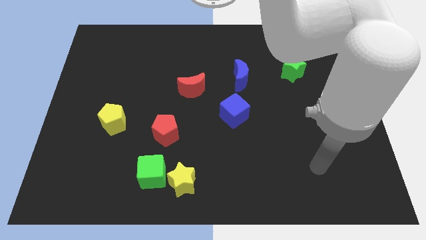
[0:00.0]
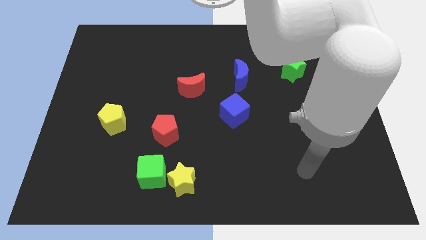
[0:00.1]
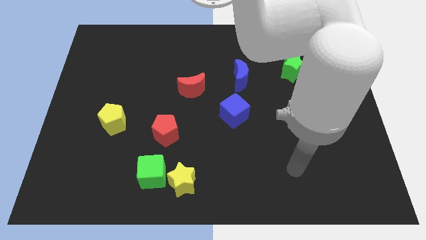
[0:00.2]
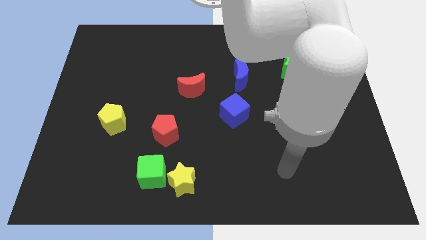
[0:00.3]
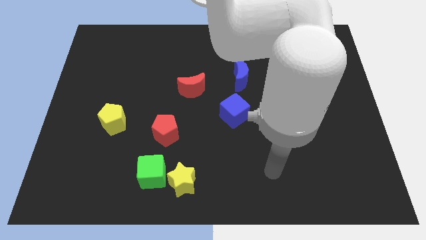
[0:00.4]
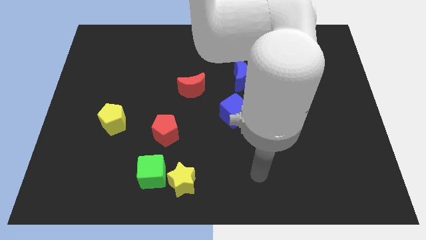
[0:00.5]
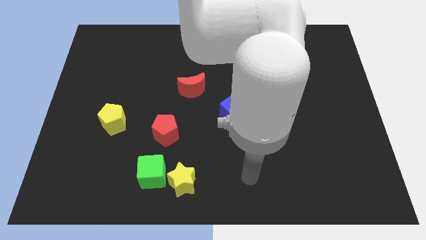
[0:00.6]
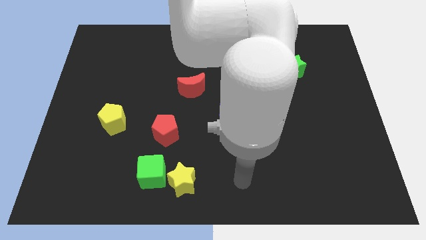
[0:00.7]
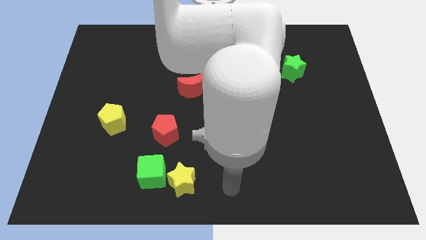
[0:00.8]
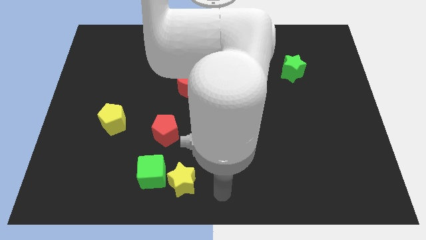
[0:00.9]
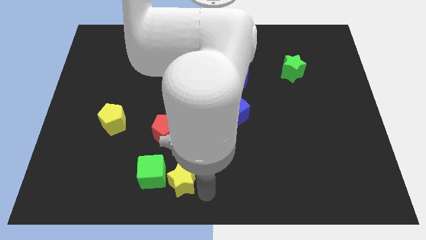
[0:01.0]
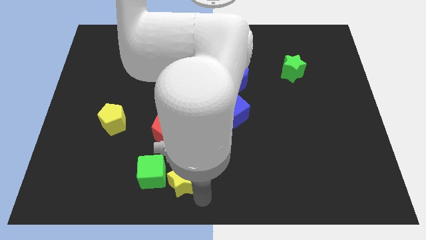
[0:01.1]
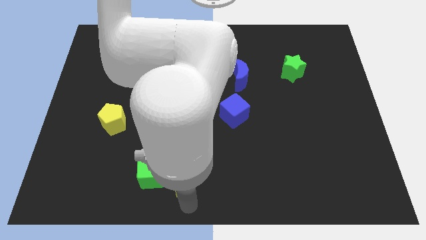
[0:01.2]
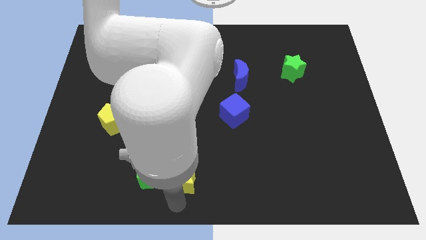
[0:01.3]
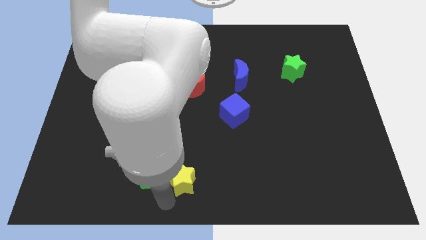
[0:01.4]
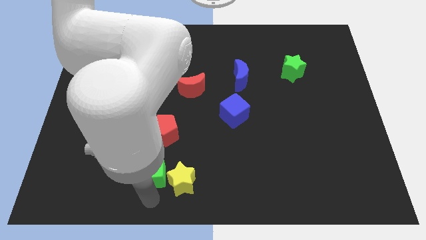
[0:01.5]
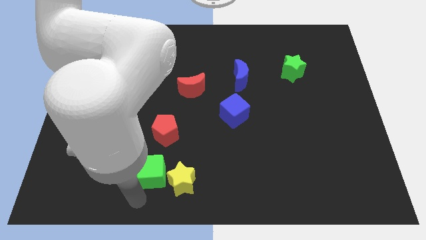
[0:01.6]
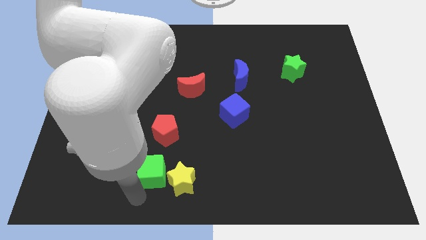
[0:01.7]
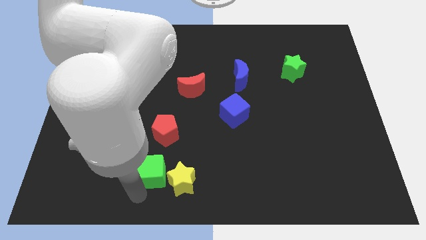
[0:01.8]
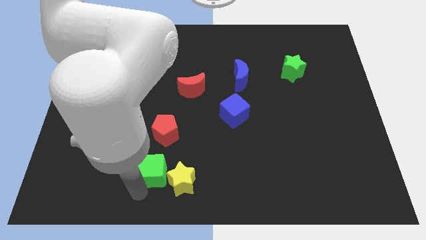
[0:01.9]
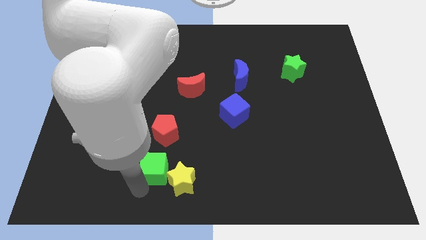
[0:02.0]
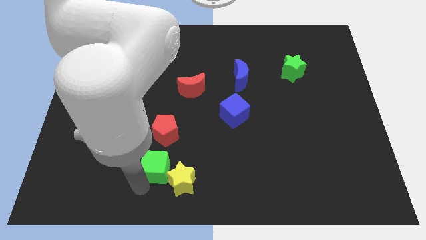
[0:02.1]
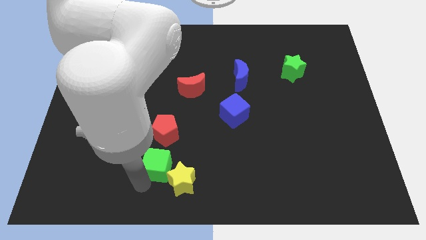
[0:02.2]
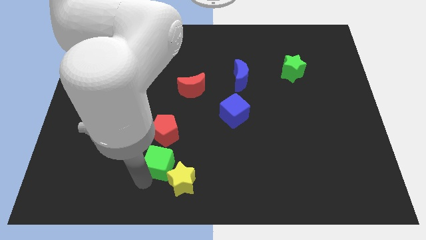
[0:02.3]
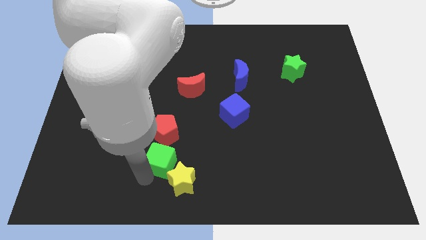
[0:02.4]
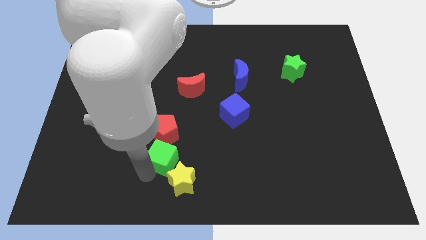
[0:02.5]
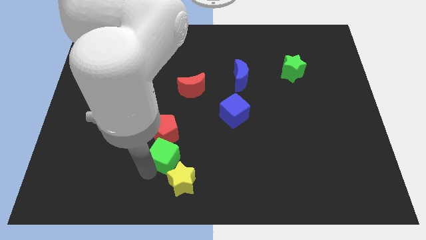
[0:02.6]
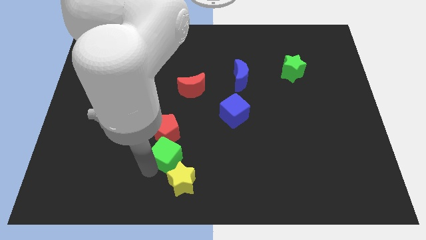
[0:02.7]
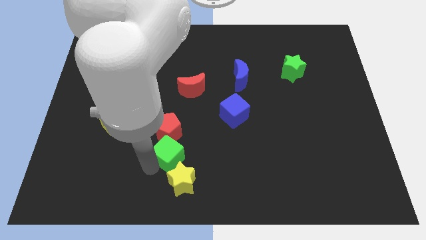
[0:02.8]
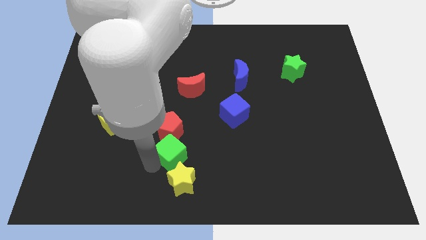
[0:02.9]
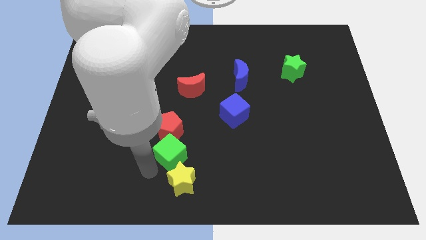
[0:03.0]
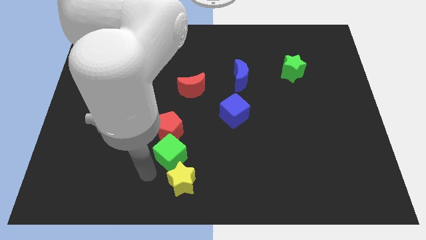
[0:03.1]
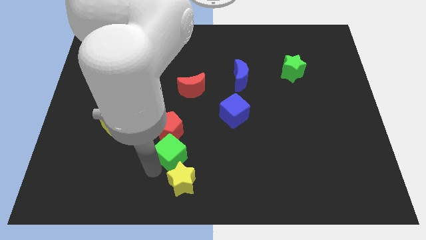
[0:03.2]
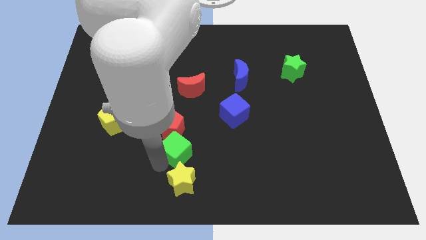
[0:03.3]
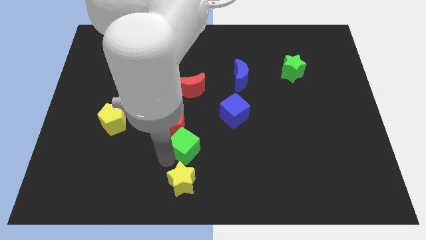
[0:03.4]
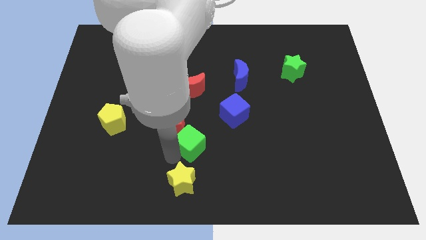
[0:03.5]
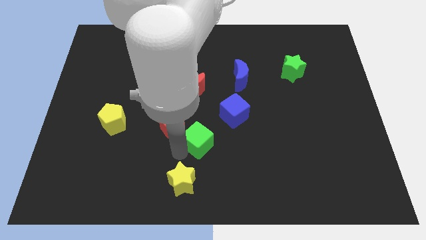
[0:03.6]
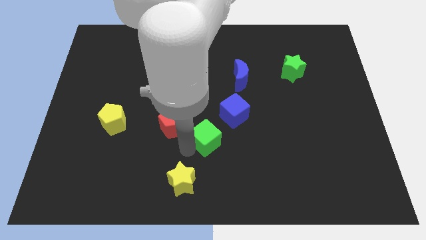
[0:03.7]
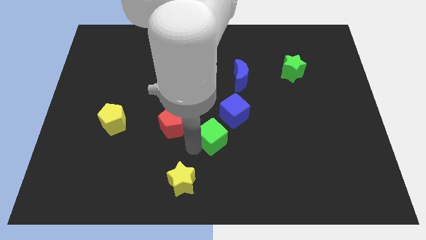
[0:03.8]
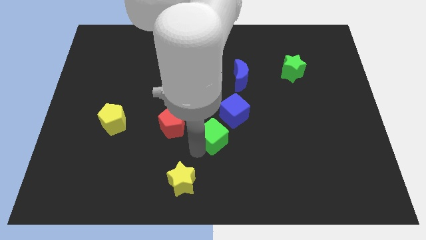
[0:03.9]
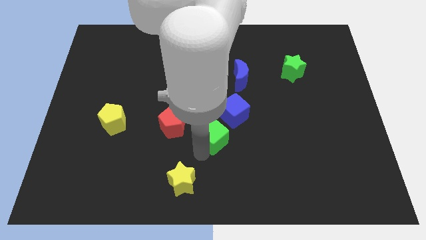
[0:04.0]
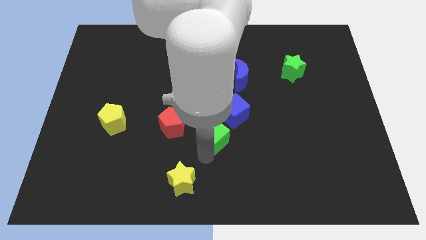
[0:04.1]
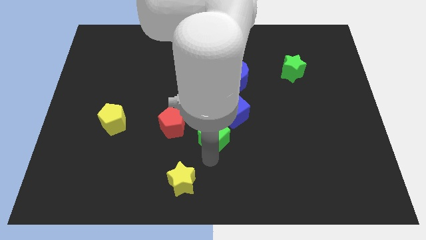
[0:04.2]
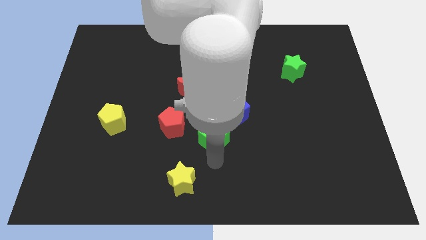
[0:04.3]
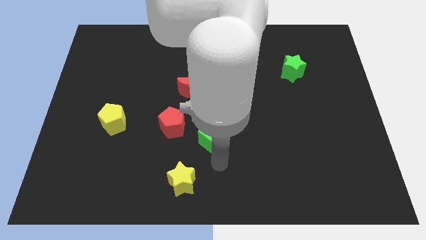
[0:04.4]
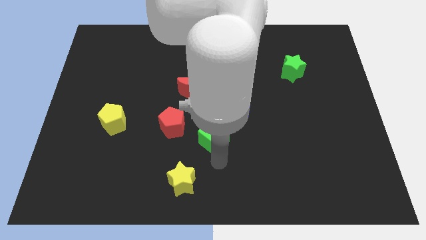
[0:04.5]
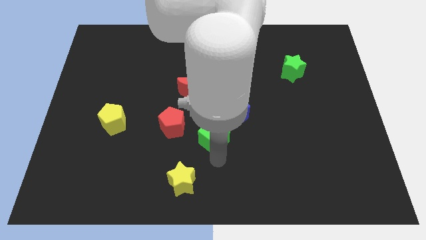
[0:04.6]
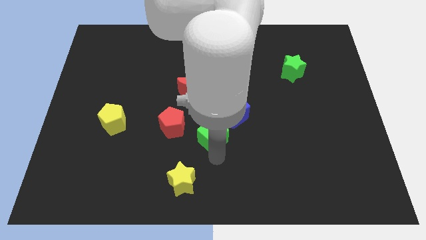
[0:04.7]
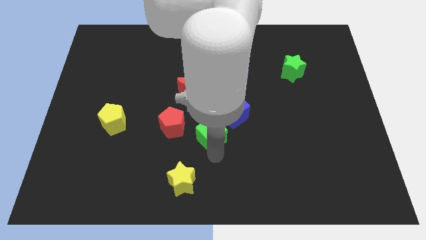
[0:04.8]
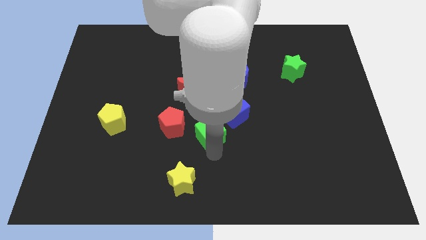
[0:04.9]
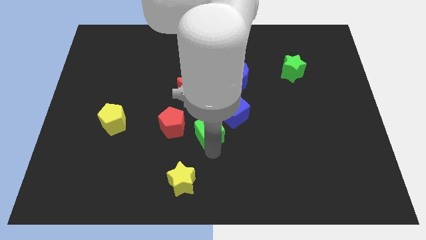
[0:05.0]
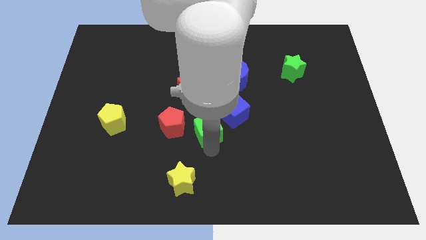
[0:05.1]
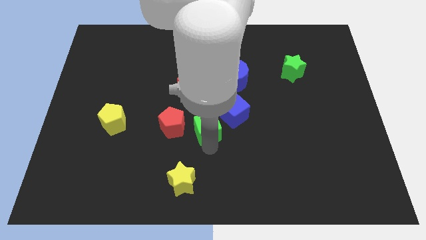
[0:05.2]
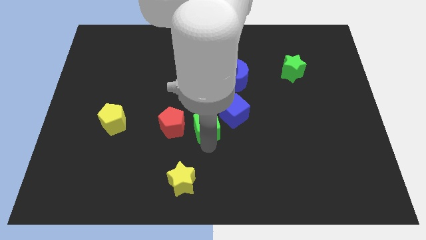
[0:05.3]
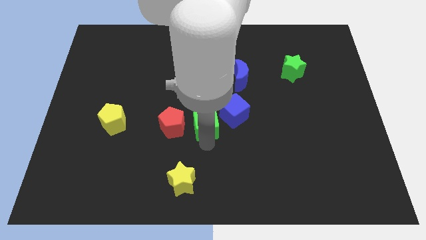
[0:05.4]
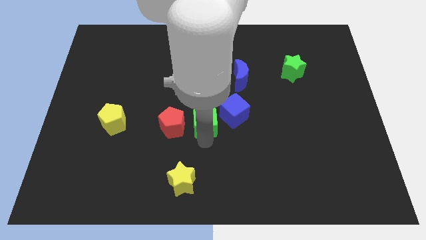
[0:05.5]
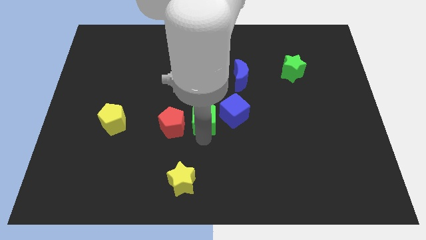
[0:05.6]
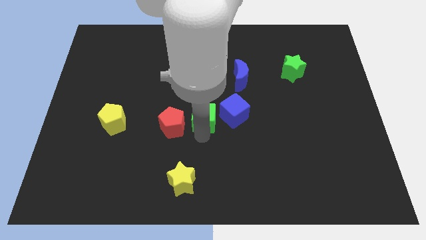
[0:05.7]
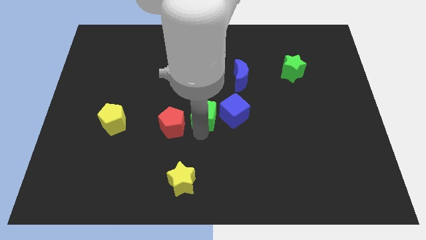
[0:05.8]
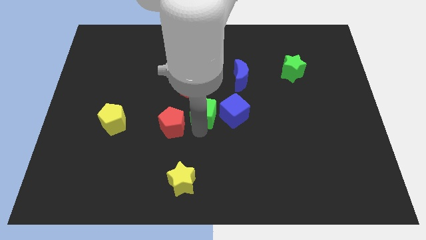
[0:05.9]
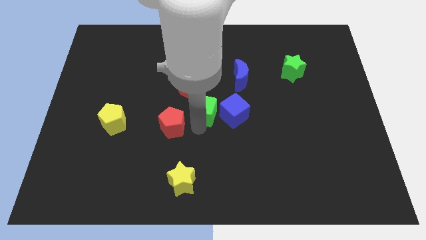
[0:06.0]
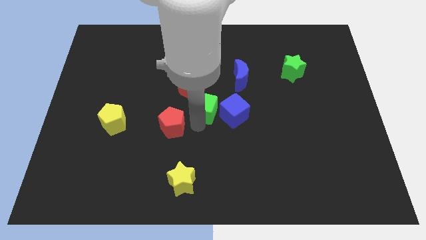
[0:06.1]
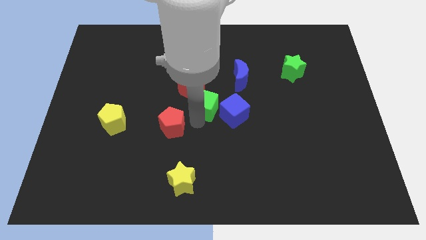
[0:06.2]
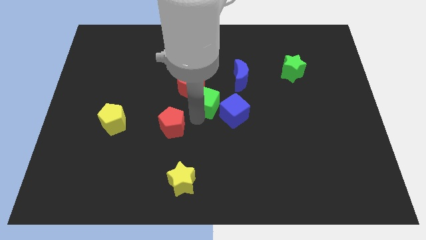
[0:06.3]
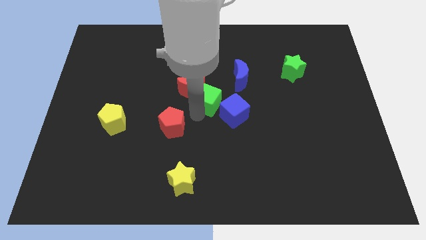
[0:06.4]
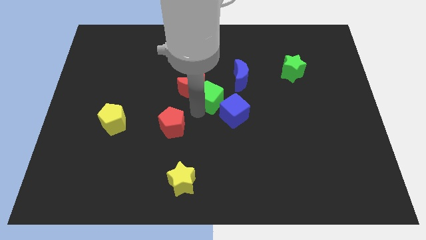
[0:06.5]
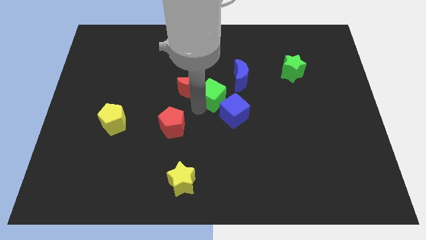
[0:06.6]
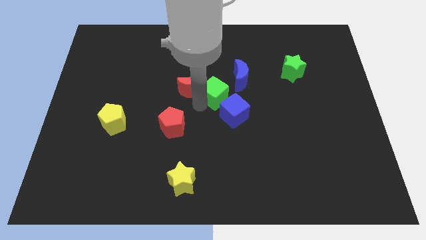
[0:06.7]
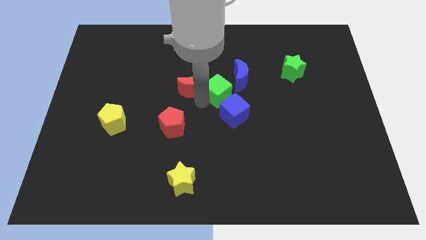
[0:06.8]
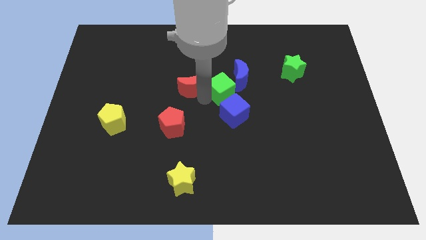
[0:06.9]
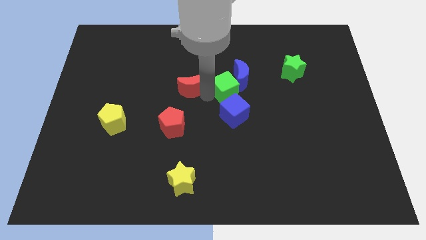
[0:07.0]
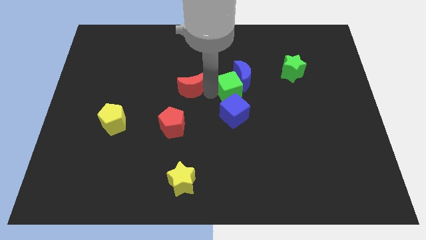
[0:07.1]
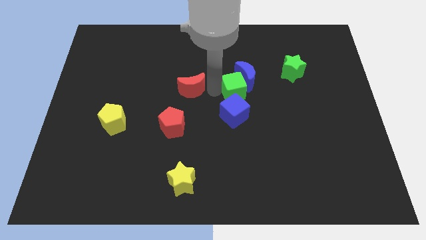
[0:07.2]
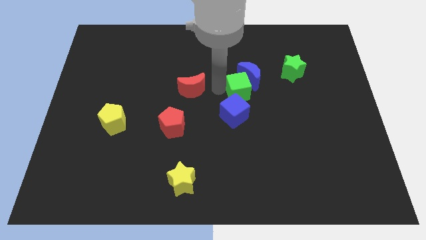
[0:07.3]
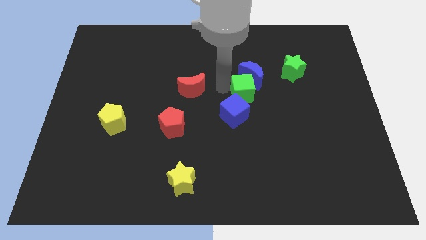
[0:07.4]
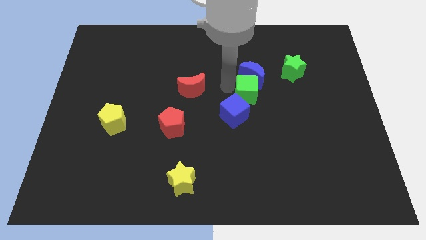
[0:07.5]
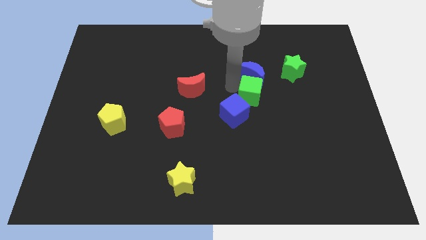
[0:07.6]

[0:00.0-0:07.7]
put the green cube diagonally down and to the right of the blue moon

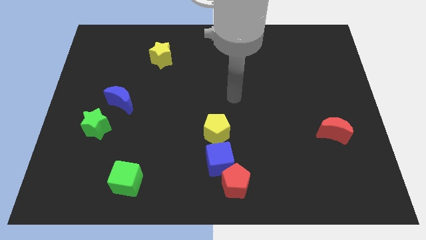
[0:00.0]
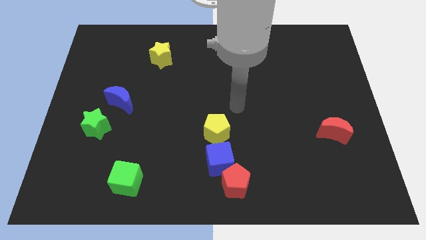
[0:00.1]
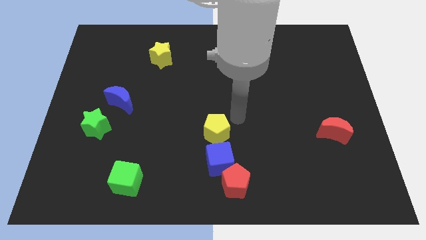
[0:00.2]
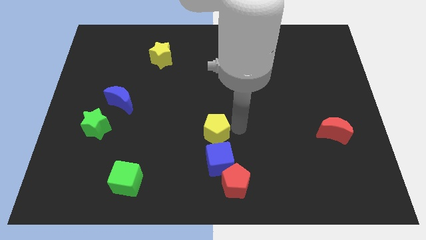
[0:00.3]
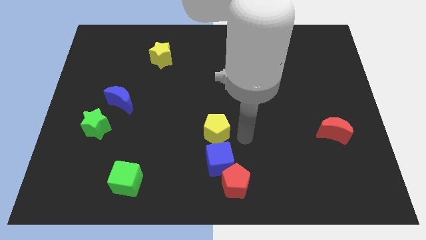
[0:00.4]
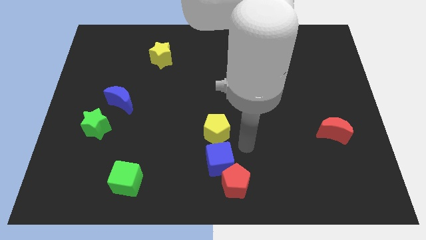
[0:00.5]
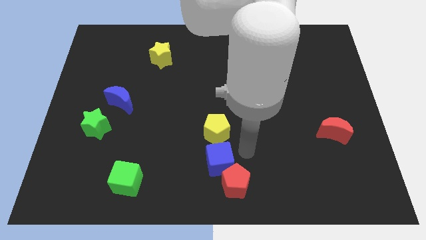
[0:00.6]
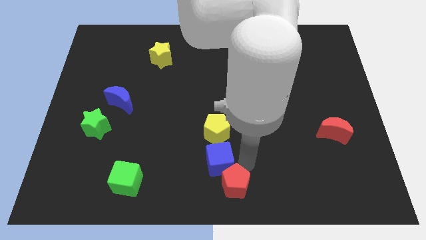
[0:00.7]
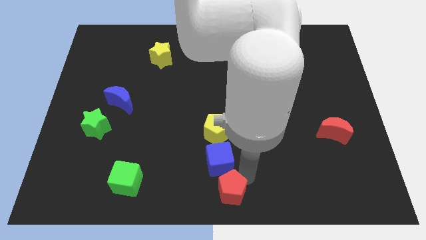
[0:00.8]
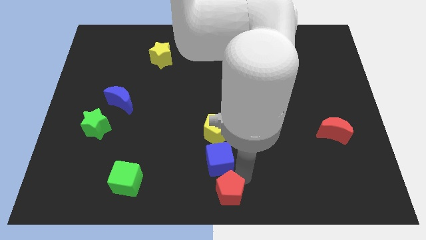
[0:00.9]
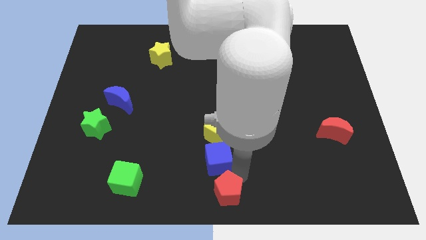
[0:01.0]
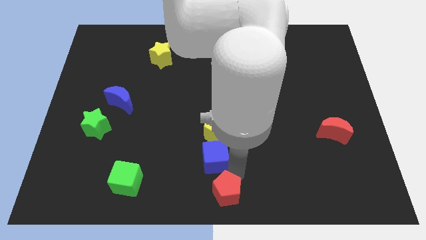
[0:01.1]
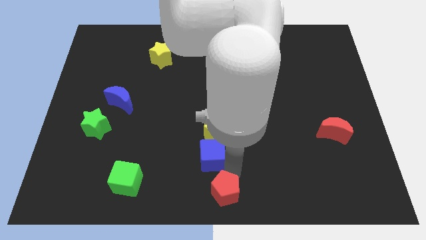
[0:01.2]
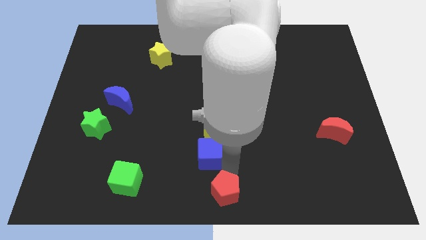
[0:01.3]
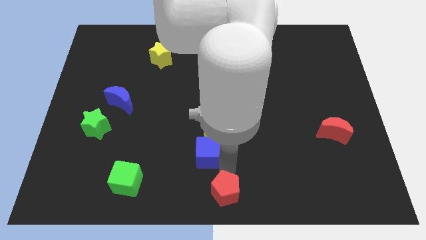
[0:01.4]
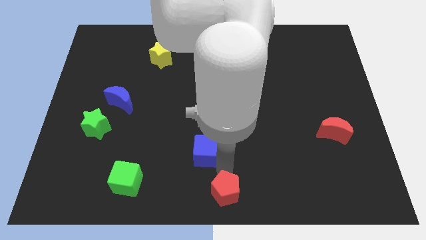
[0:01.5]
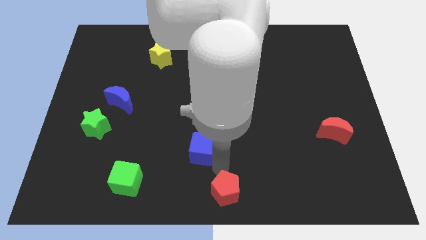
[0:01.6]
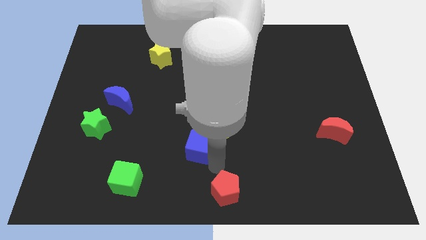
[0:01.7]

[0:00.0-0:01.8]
slide the blue cube just left of the yellow pentagon
